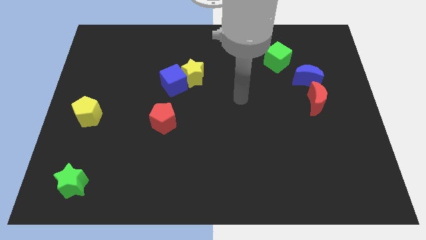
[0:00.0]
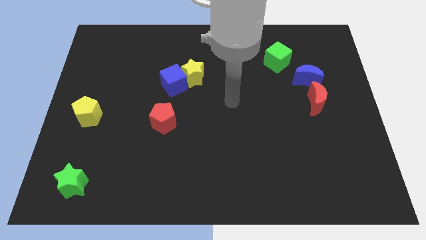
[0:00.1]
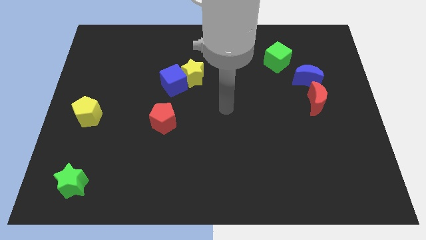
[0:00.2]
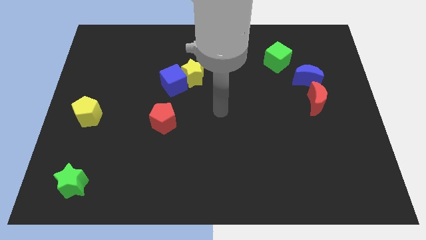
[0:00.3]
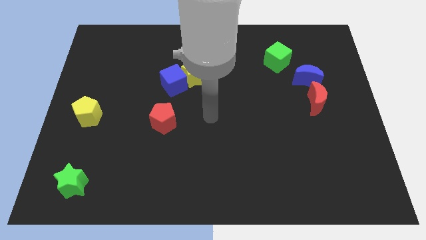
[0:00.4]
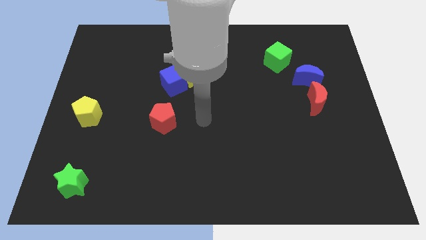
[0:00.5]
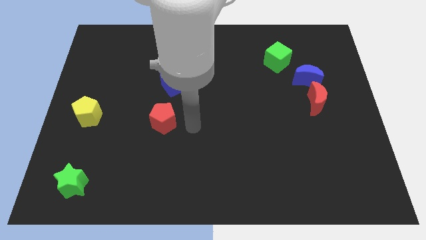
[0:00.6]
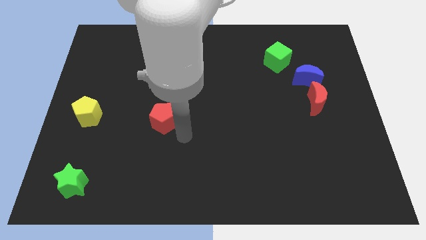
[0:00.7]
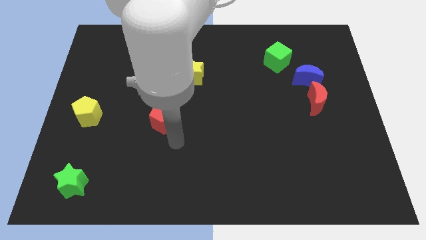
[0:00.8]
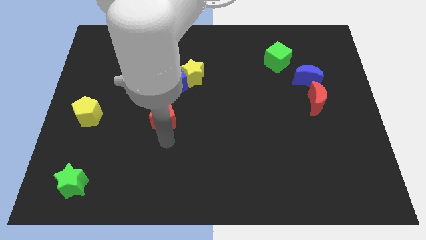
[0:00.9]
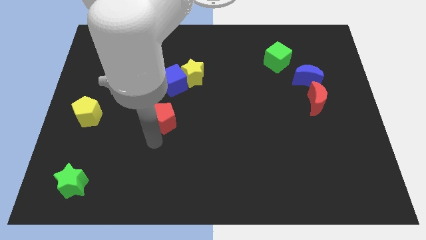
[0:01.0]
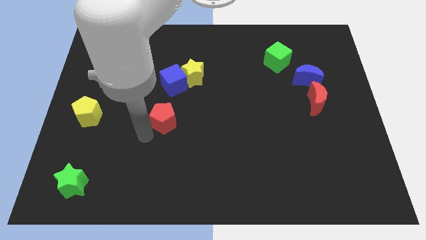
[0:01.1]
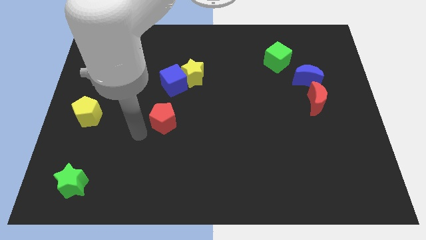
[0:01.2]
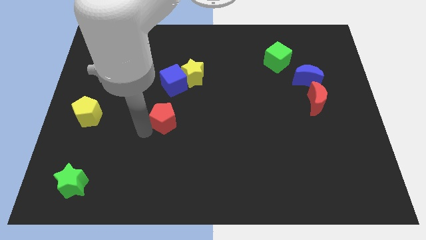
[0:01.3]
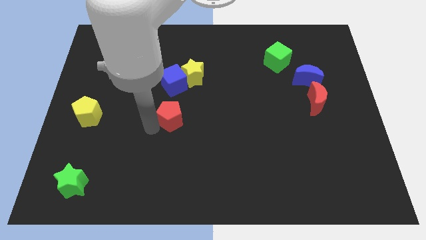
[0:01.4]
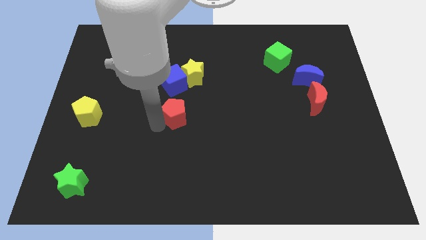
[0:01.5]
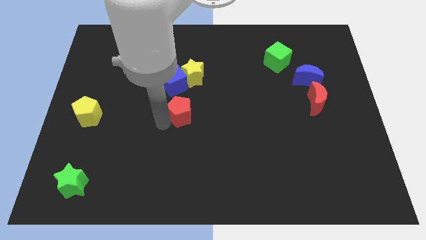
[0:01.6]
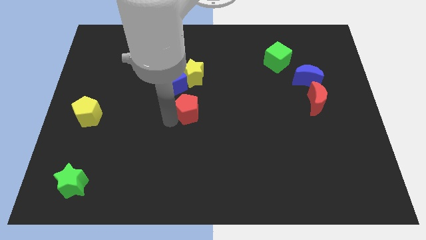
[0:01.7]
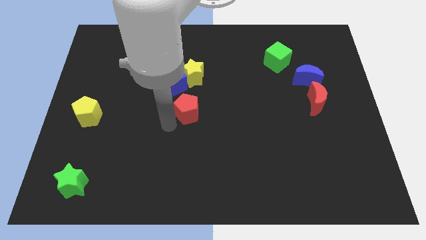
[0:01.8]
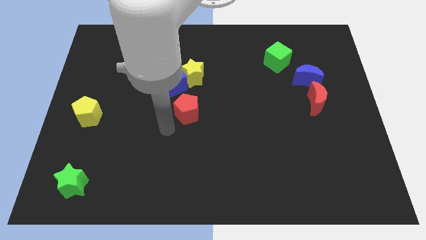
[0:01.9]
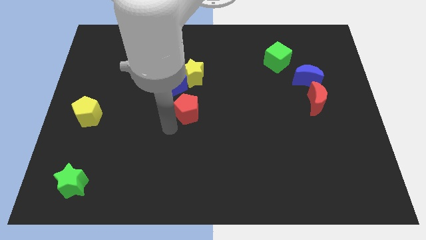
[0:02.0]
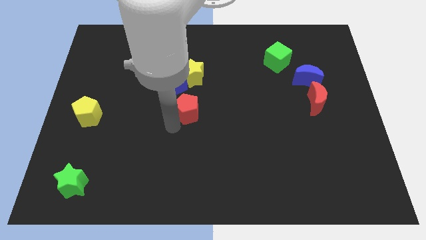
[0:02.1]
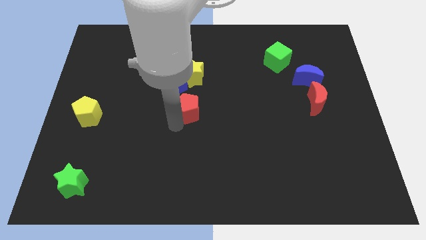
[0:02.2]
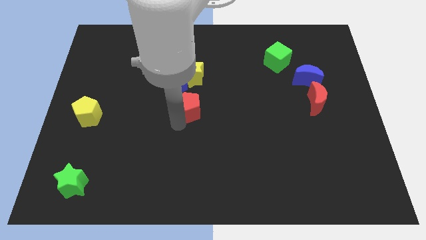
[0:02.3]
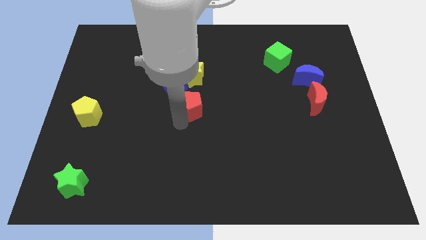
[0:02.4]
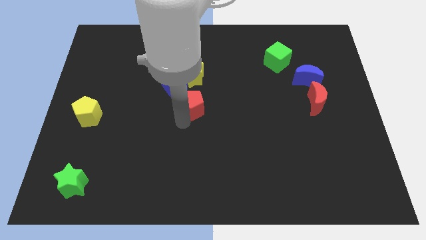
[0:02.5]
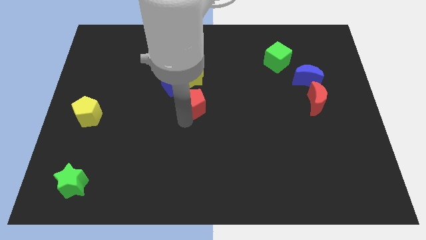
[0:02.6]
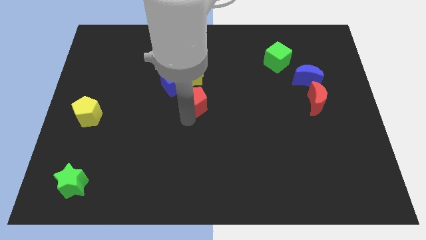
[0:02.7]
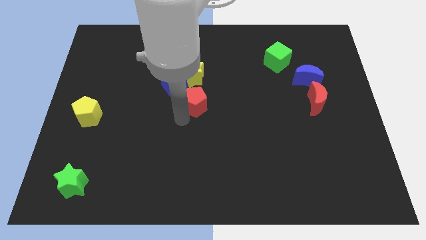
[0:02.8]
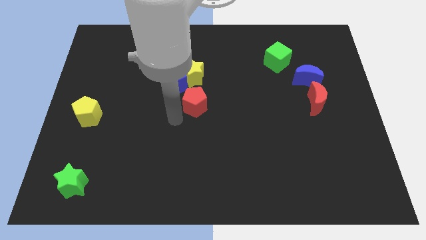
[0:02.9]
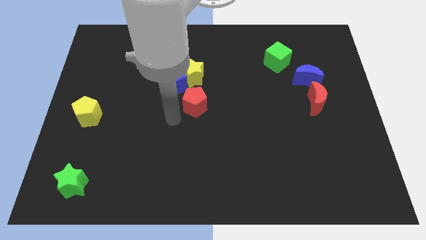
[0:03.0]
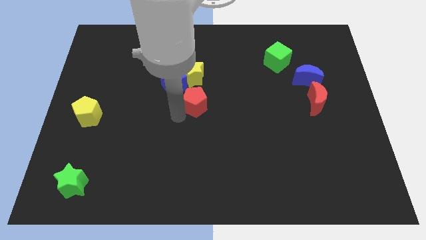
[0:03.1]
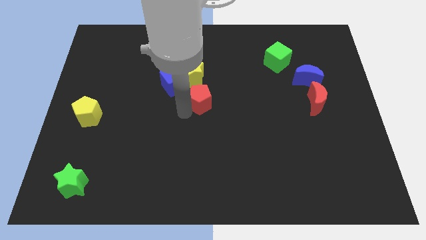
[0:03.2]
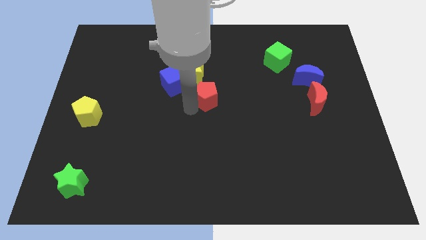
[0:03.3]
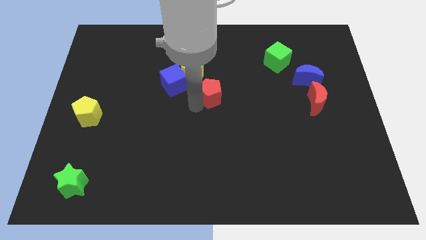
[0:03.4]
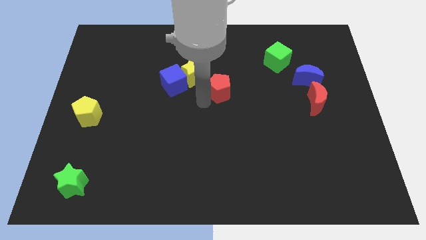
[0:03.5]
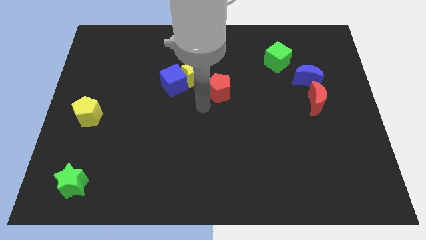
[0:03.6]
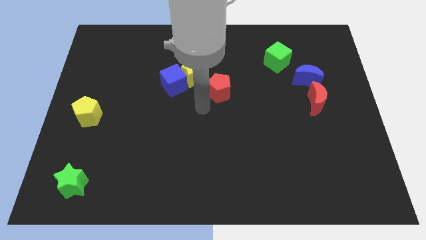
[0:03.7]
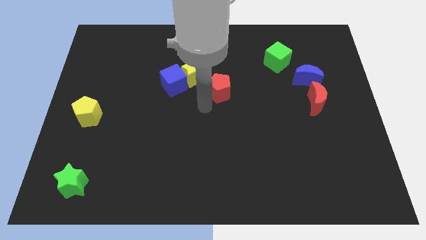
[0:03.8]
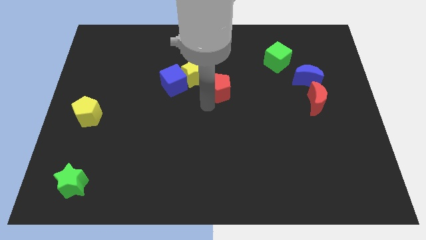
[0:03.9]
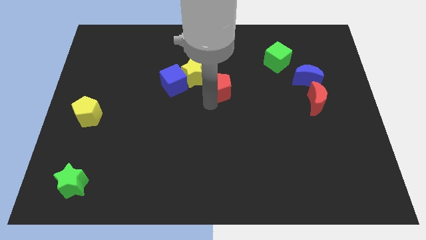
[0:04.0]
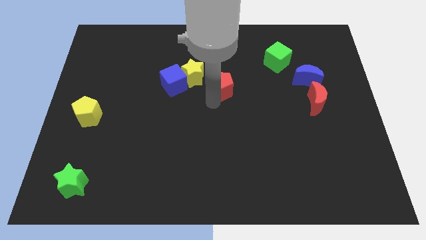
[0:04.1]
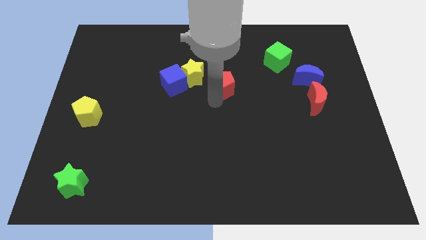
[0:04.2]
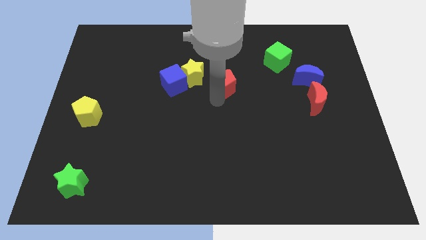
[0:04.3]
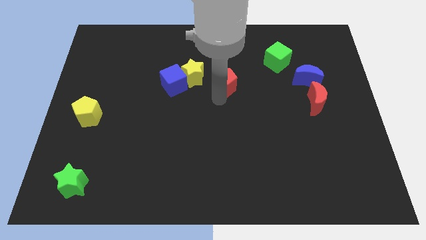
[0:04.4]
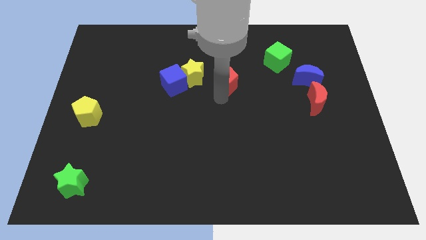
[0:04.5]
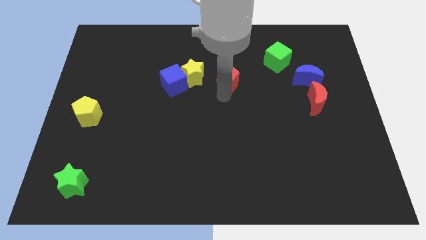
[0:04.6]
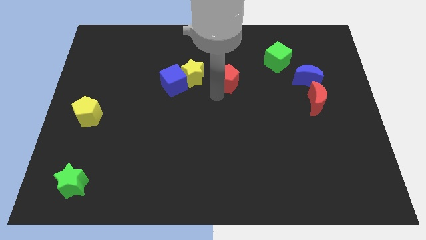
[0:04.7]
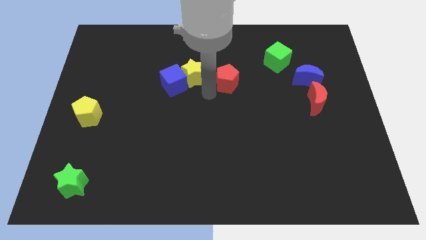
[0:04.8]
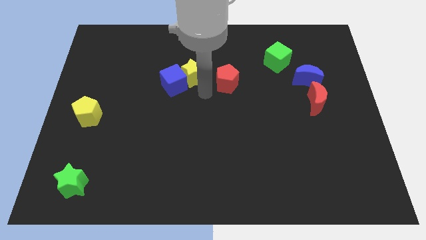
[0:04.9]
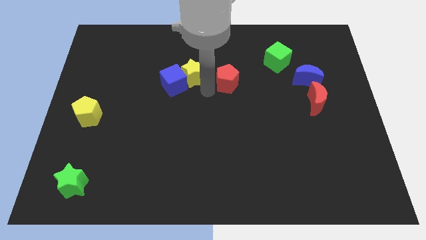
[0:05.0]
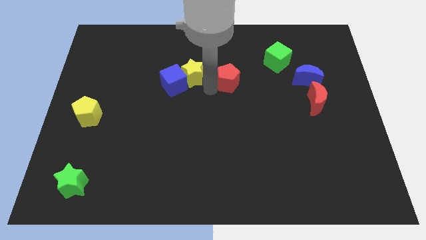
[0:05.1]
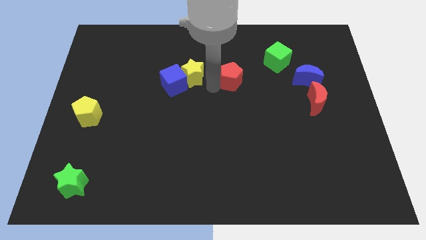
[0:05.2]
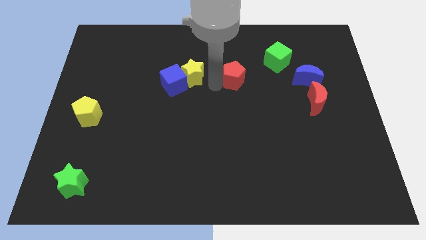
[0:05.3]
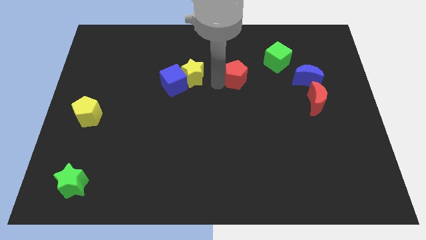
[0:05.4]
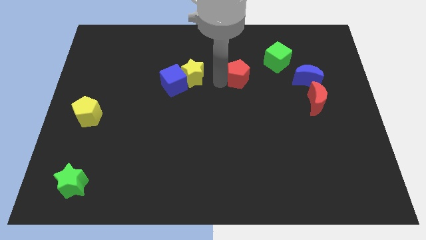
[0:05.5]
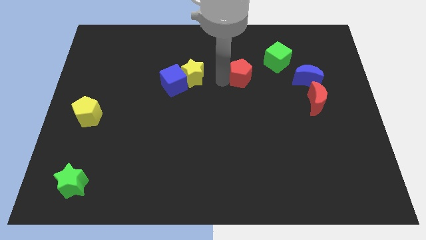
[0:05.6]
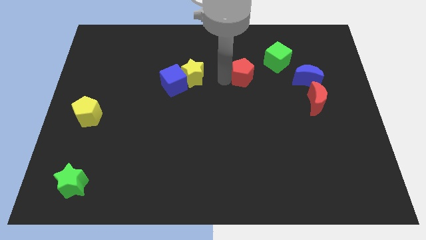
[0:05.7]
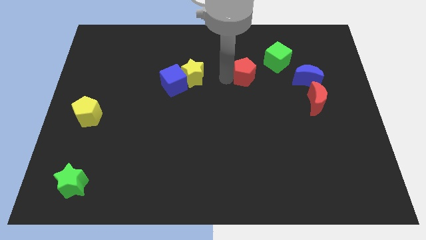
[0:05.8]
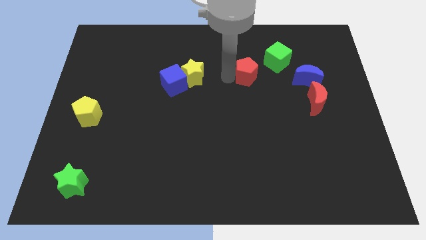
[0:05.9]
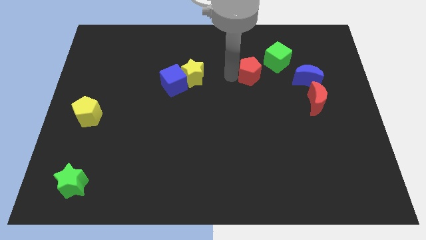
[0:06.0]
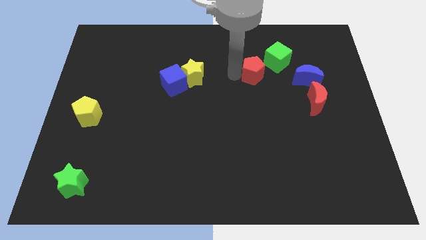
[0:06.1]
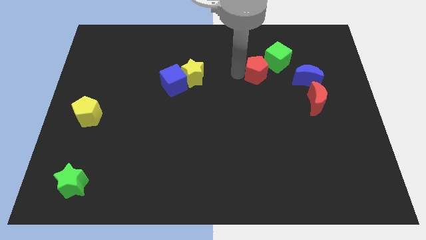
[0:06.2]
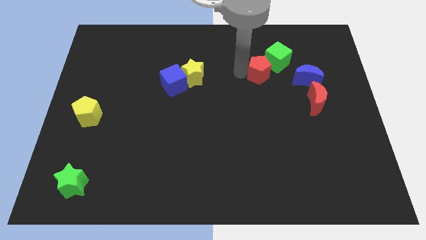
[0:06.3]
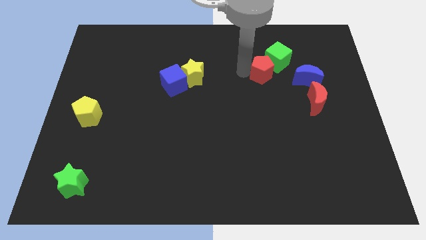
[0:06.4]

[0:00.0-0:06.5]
move the red pentagon close to the green cube
